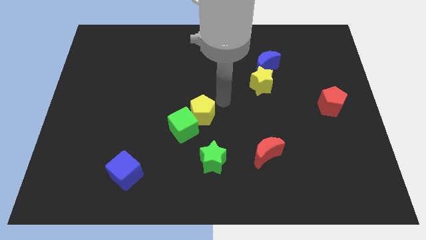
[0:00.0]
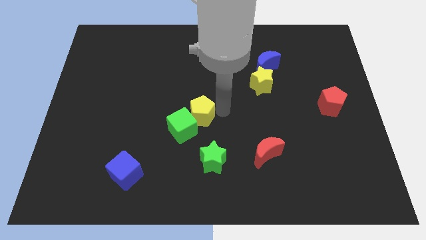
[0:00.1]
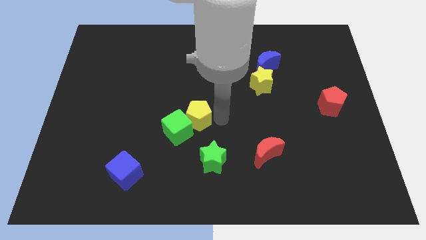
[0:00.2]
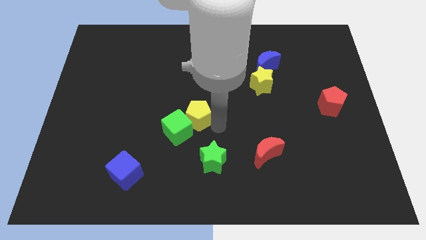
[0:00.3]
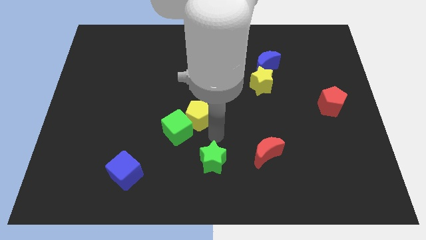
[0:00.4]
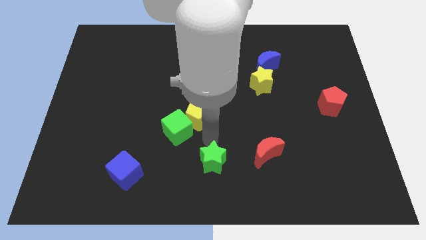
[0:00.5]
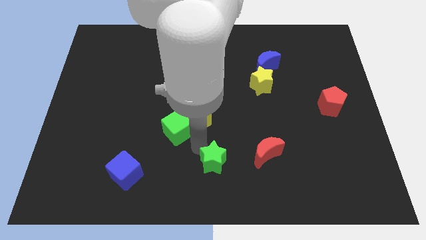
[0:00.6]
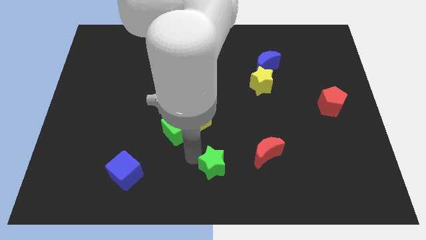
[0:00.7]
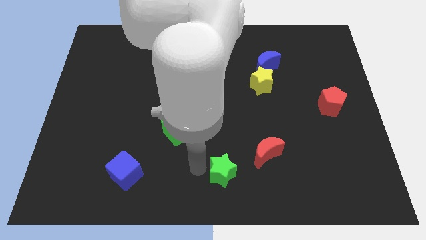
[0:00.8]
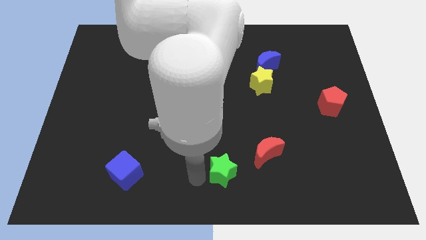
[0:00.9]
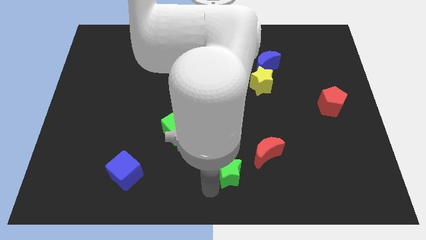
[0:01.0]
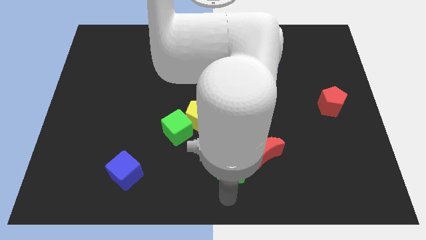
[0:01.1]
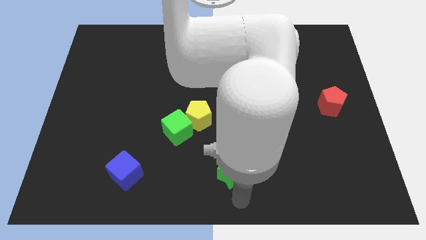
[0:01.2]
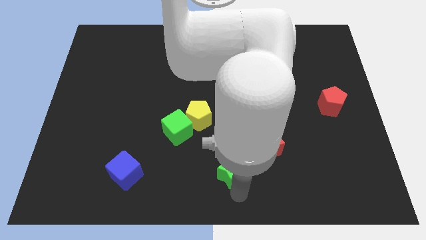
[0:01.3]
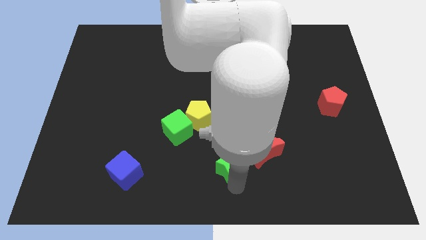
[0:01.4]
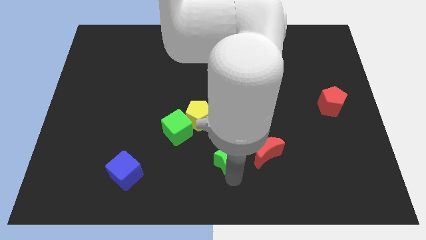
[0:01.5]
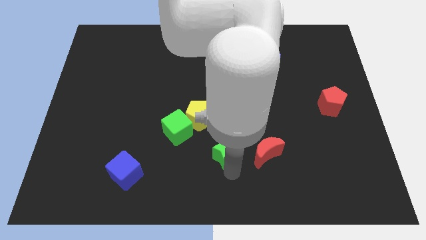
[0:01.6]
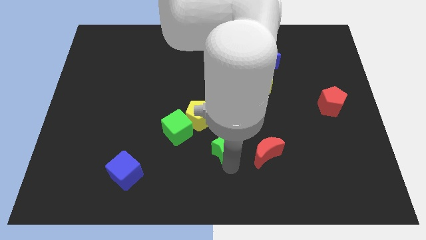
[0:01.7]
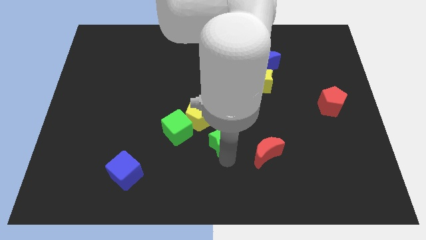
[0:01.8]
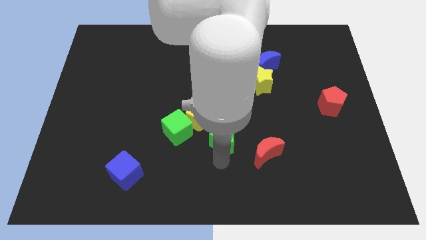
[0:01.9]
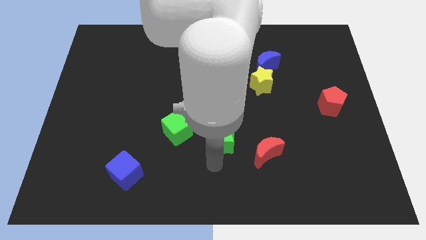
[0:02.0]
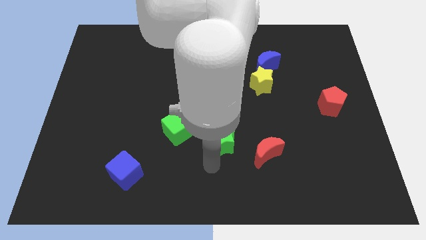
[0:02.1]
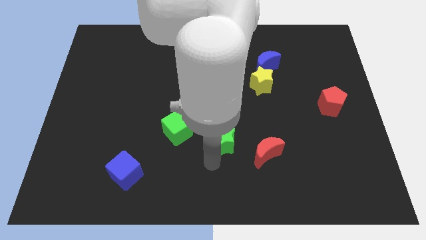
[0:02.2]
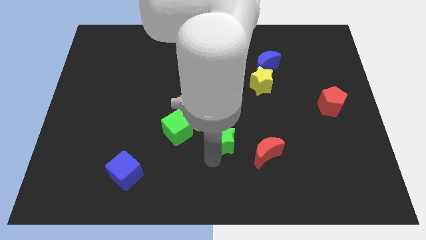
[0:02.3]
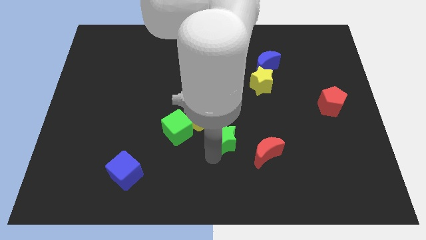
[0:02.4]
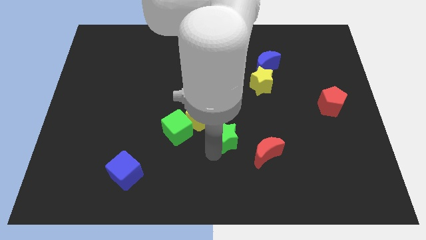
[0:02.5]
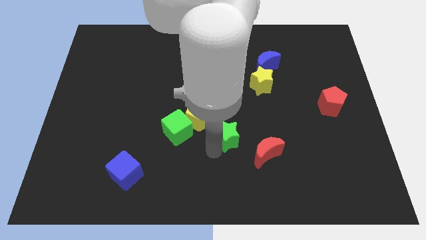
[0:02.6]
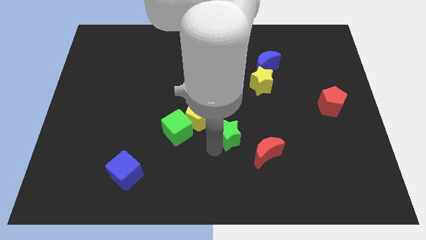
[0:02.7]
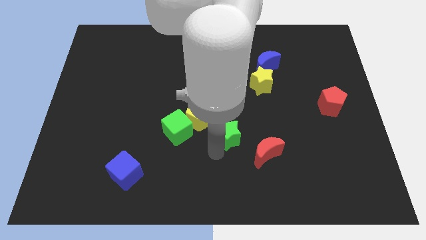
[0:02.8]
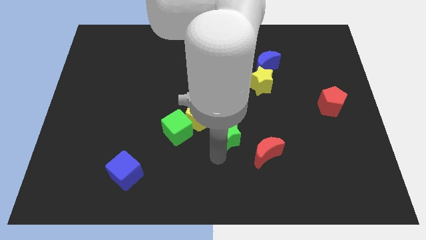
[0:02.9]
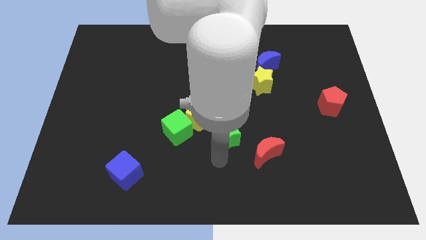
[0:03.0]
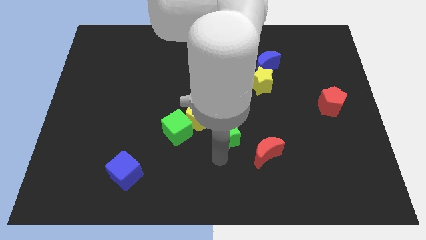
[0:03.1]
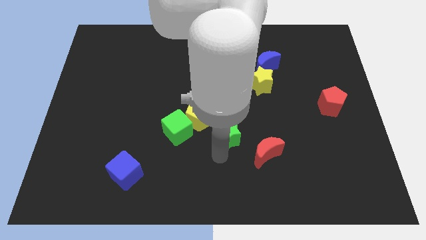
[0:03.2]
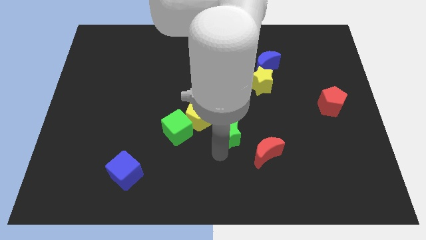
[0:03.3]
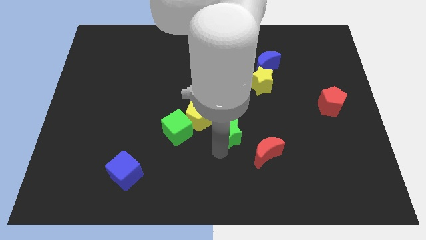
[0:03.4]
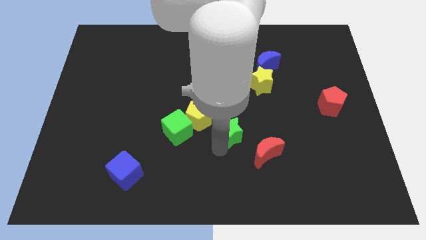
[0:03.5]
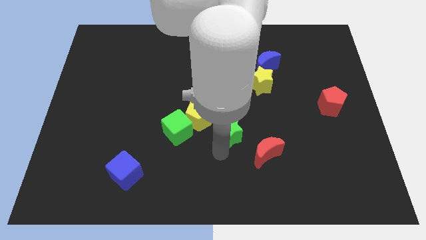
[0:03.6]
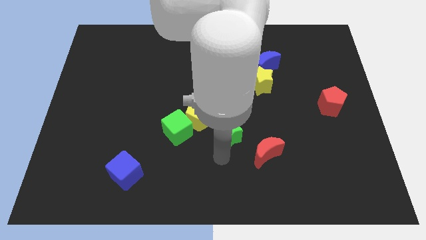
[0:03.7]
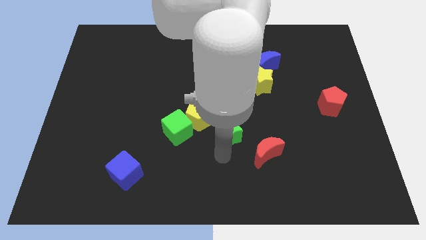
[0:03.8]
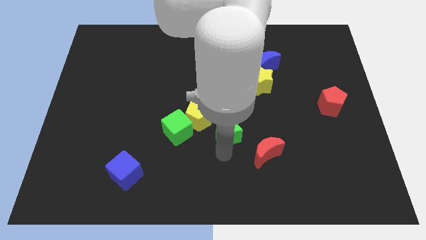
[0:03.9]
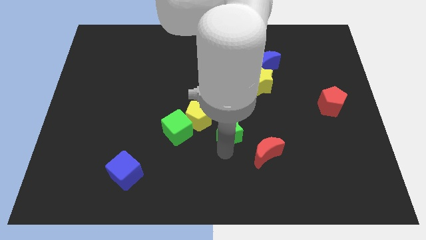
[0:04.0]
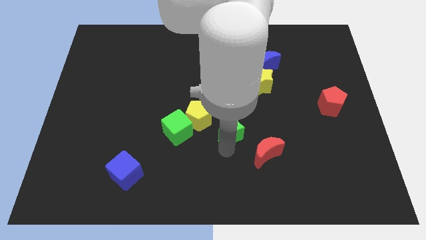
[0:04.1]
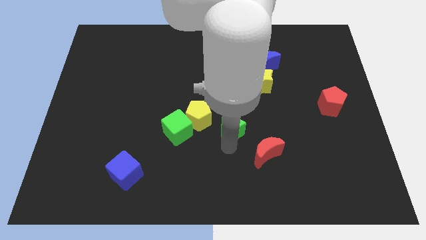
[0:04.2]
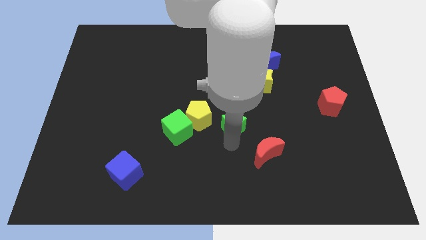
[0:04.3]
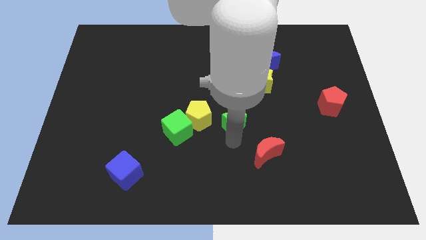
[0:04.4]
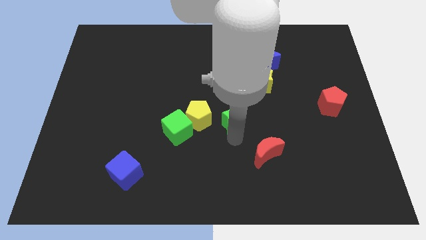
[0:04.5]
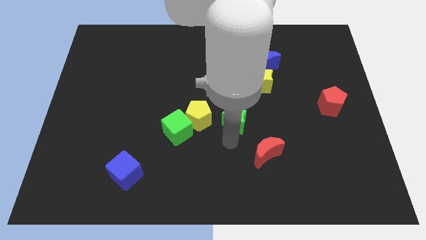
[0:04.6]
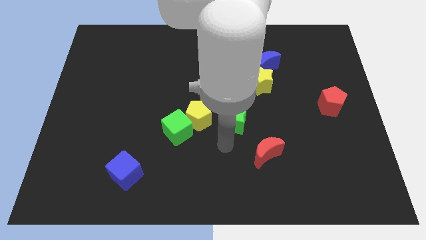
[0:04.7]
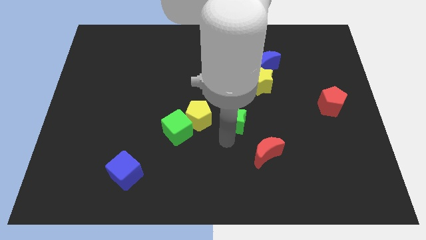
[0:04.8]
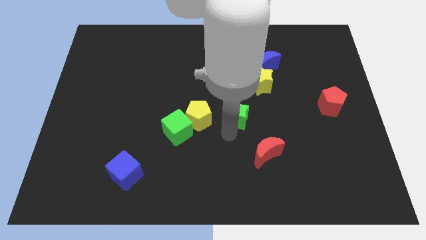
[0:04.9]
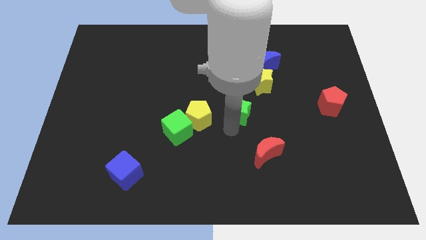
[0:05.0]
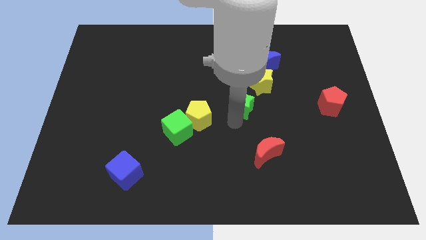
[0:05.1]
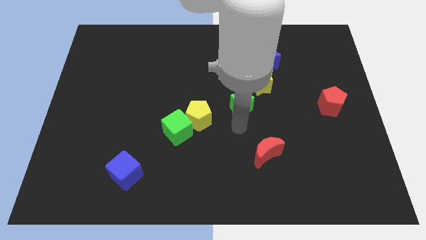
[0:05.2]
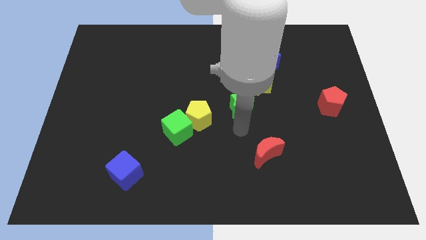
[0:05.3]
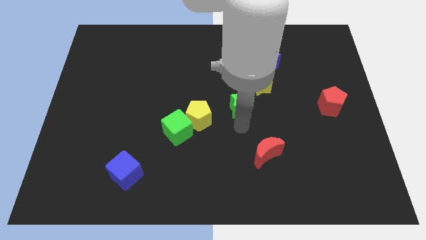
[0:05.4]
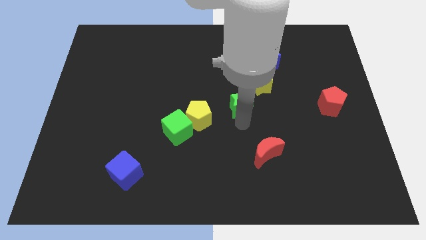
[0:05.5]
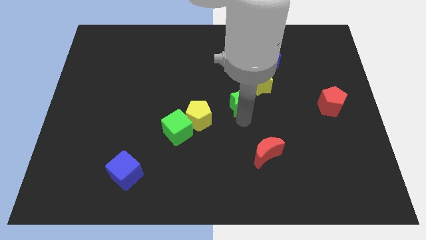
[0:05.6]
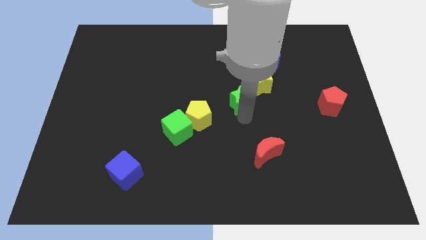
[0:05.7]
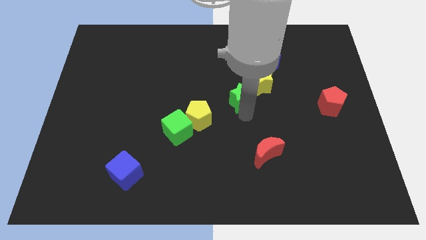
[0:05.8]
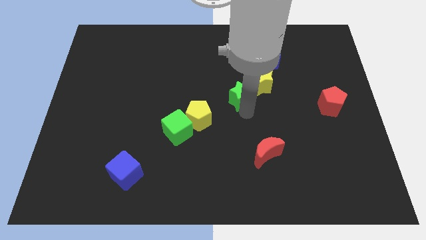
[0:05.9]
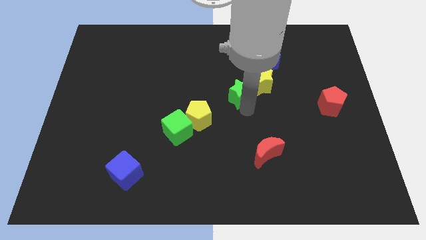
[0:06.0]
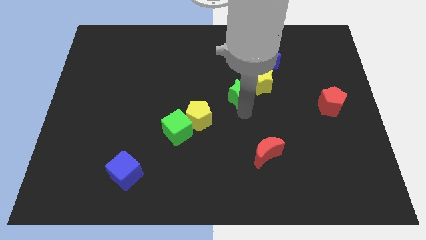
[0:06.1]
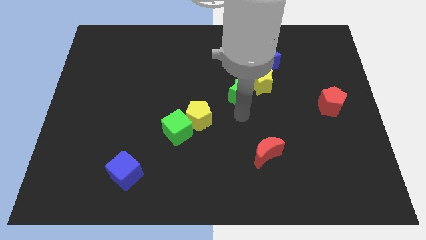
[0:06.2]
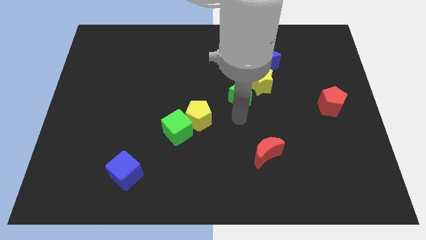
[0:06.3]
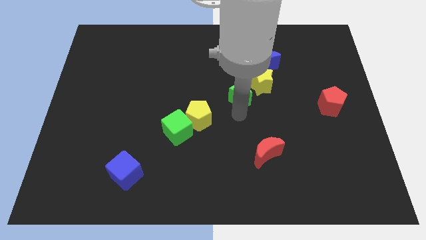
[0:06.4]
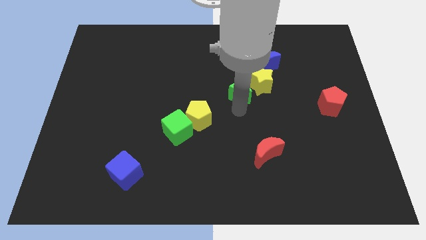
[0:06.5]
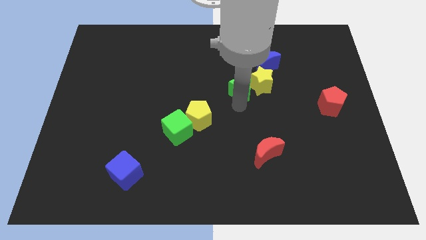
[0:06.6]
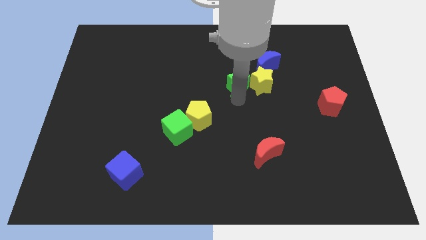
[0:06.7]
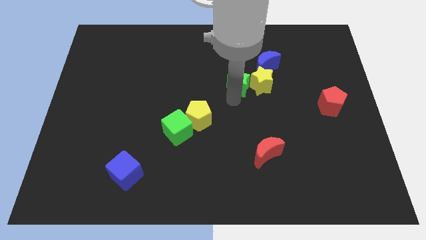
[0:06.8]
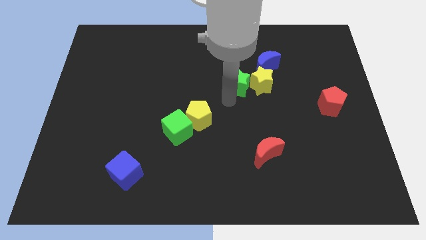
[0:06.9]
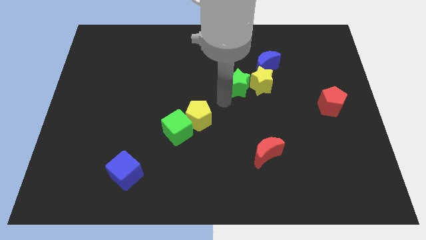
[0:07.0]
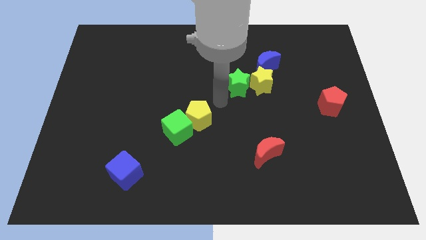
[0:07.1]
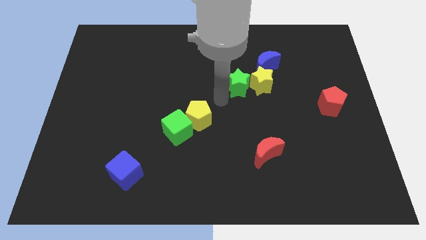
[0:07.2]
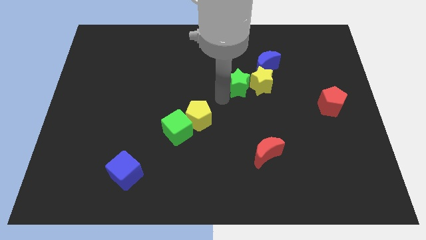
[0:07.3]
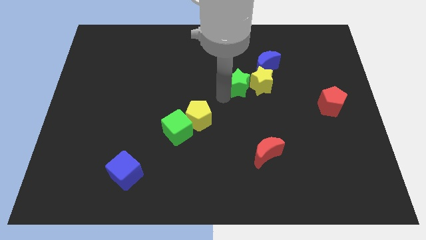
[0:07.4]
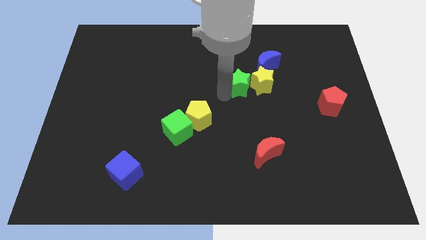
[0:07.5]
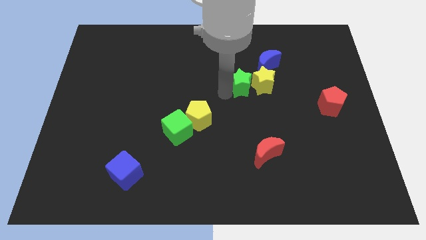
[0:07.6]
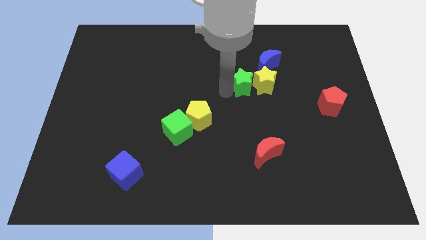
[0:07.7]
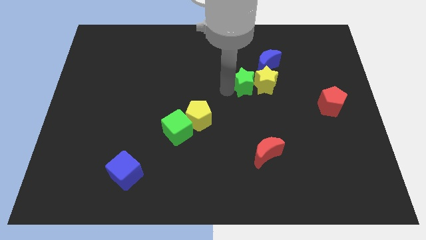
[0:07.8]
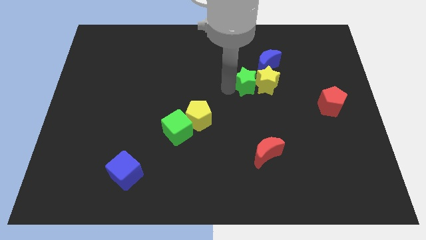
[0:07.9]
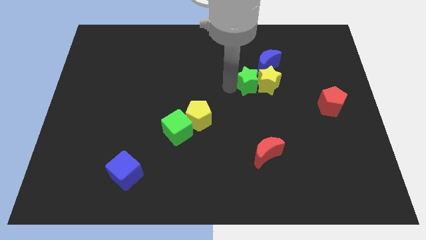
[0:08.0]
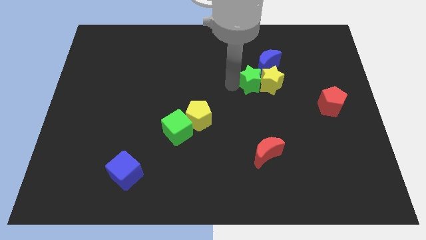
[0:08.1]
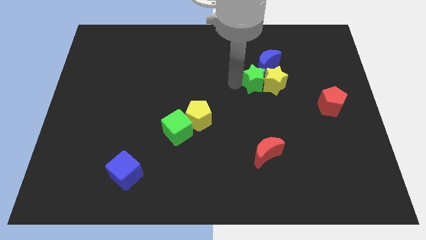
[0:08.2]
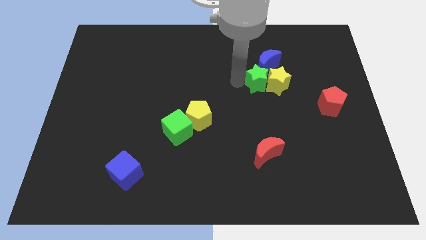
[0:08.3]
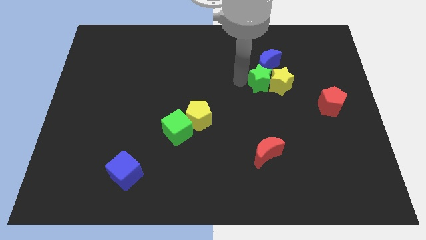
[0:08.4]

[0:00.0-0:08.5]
slide the green star next to the blue moon
